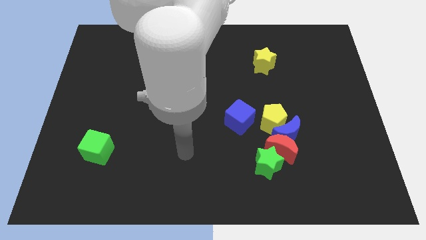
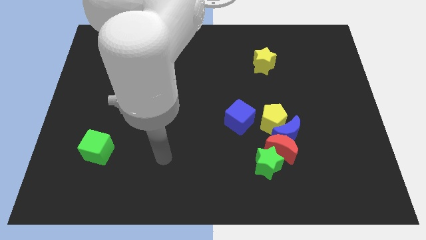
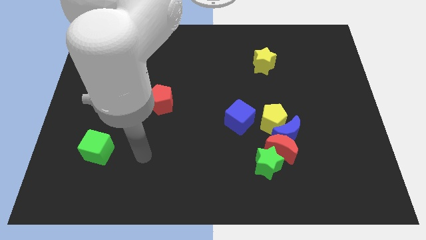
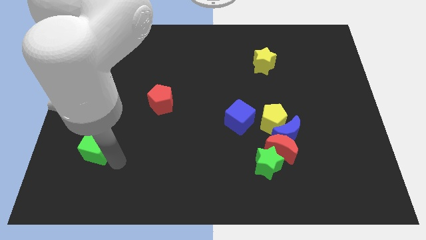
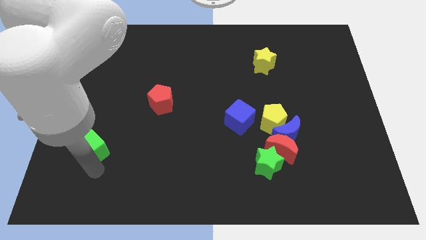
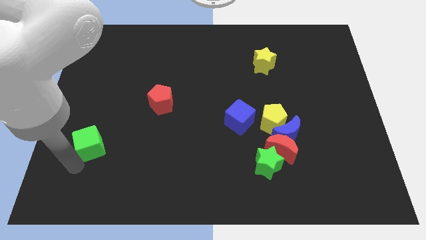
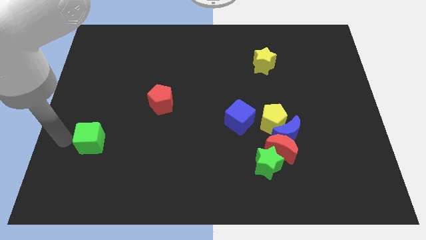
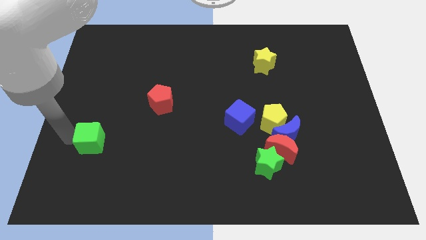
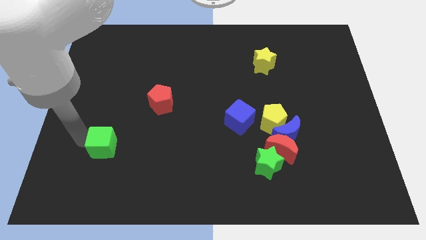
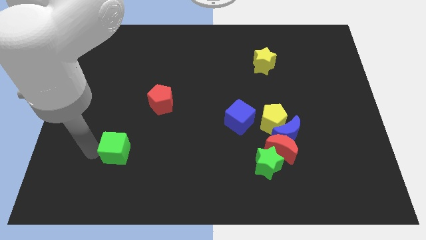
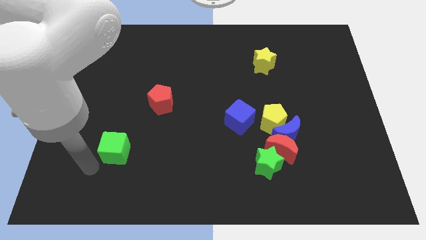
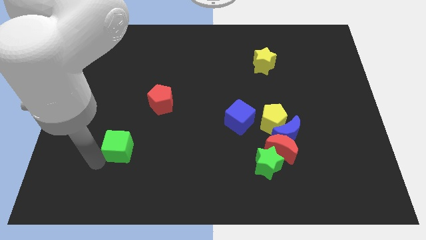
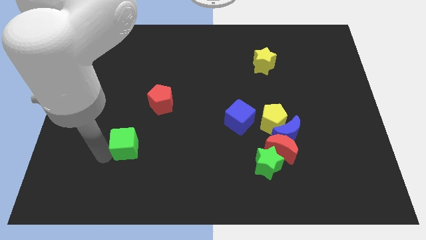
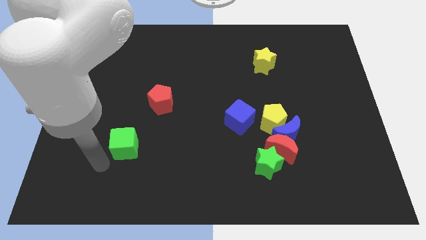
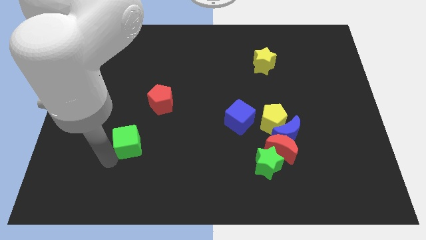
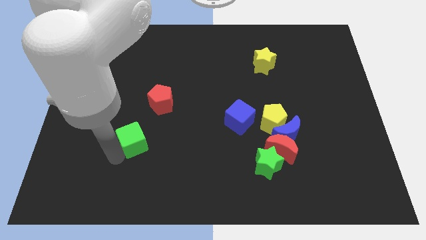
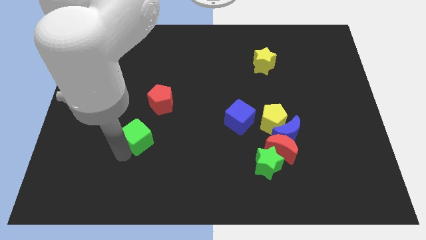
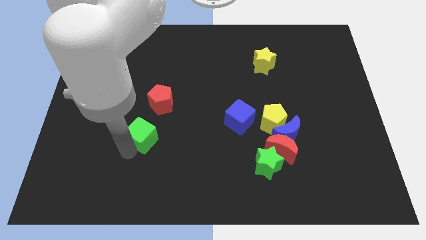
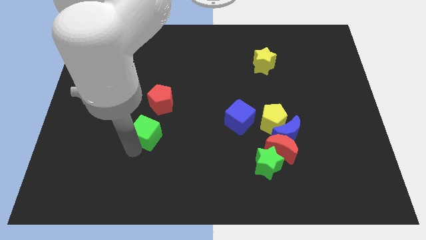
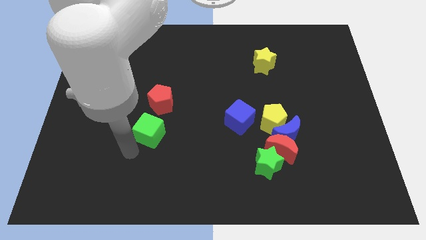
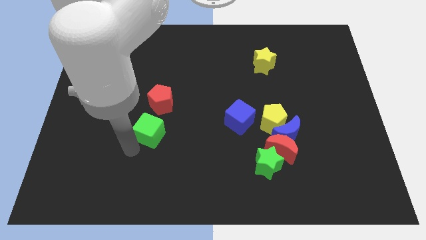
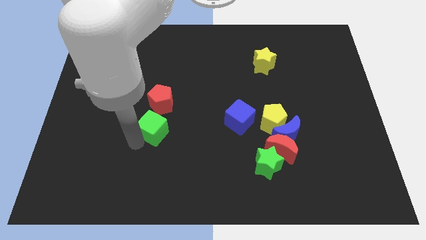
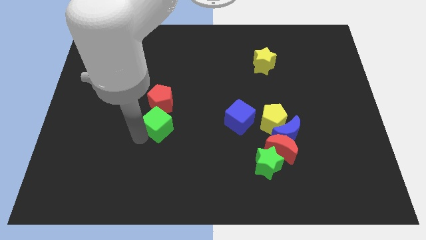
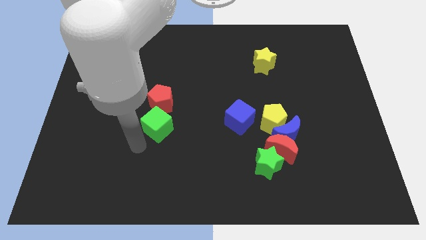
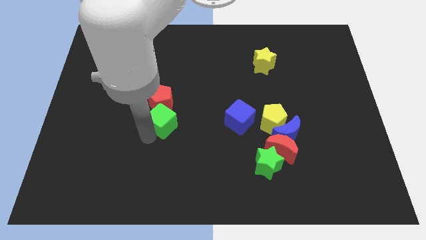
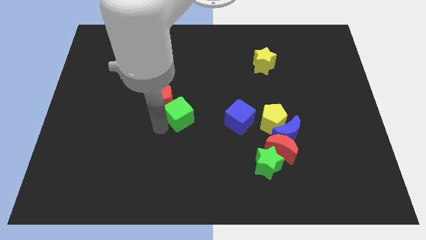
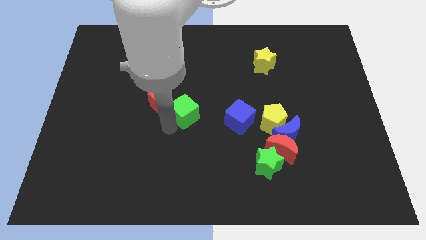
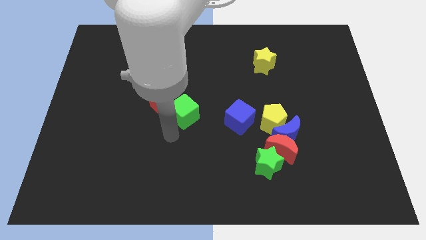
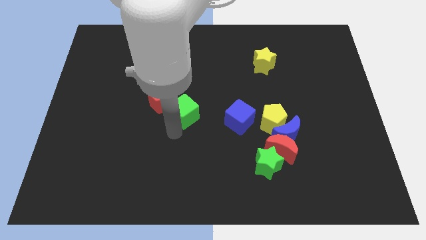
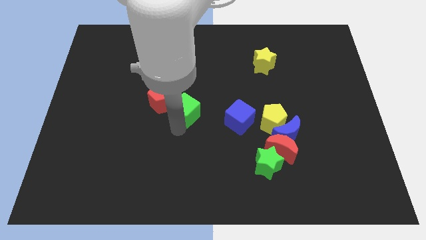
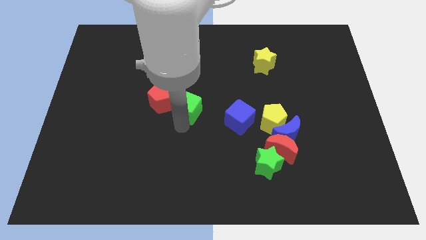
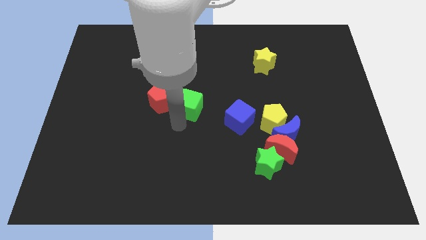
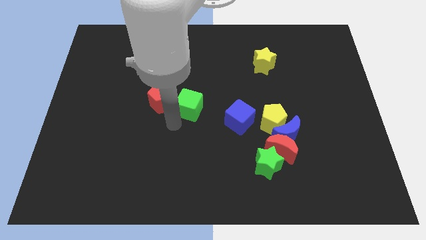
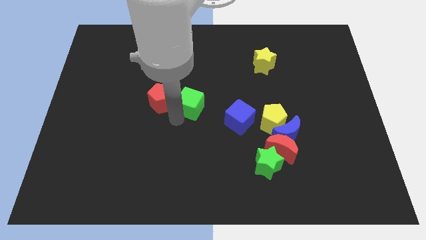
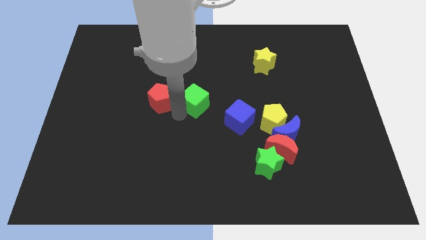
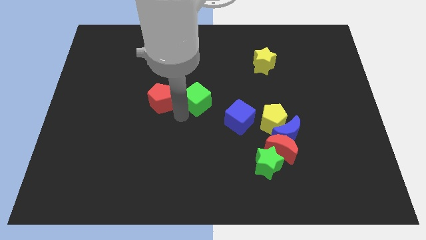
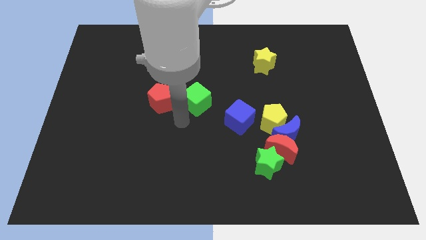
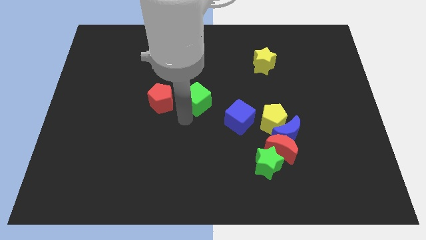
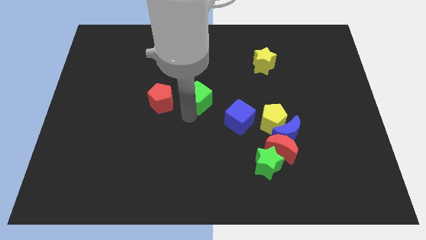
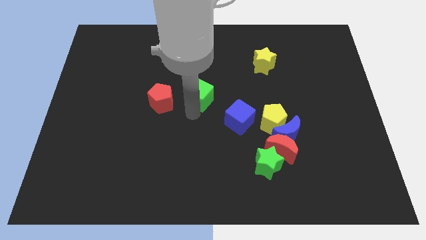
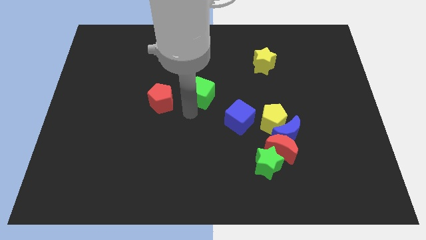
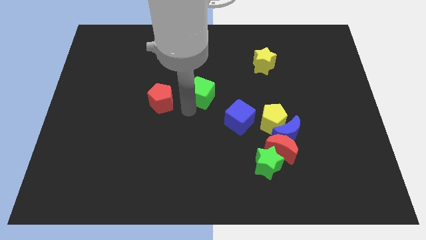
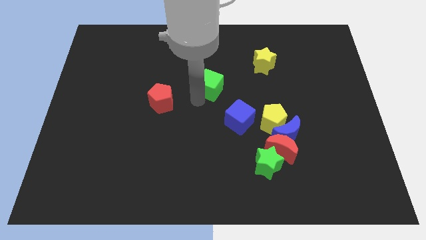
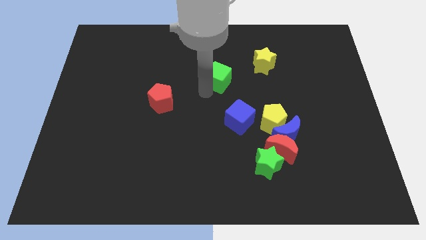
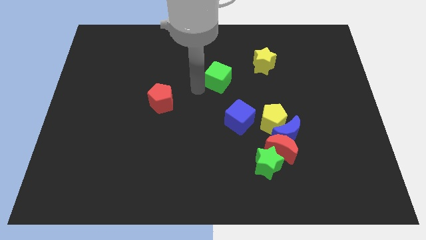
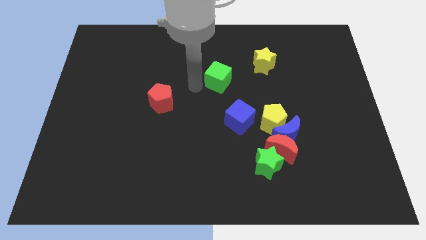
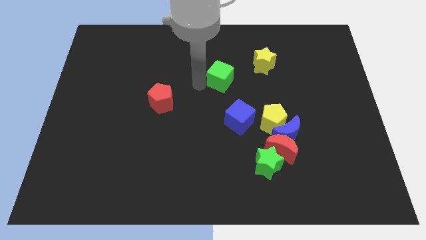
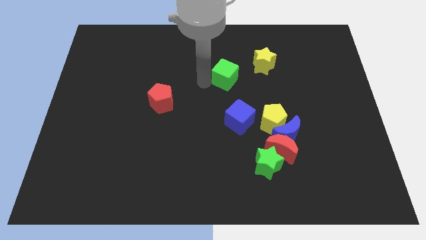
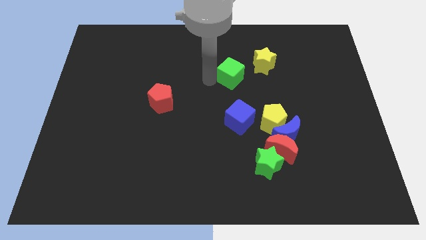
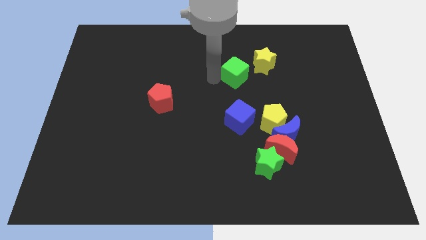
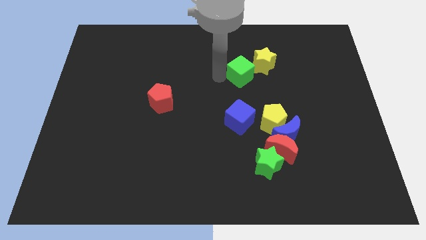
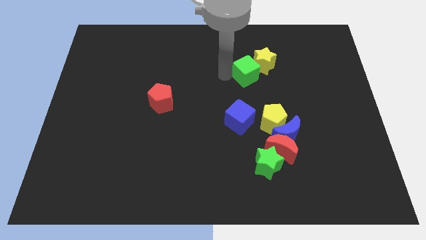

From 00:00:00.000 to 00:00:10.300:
slide the green cube close to the yellow star

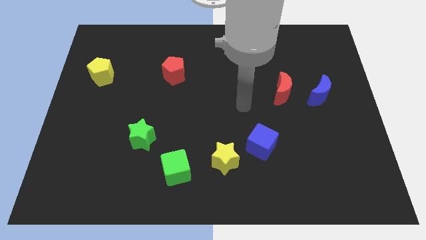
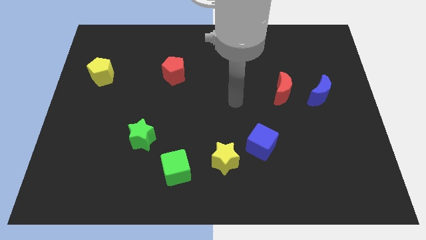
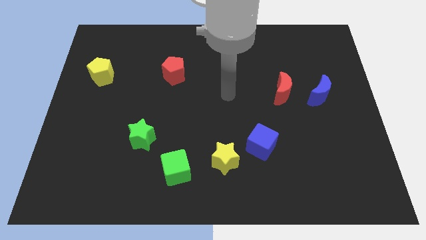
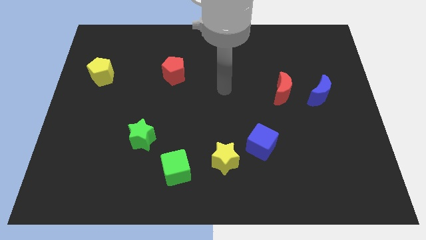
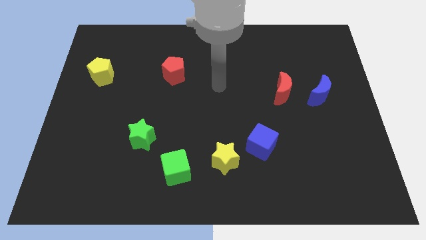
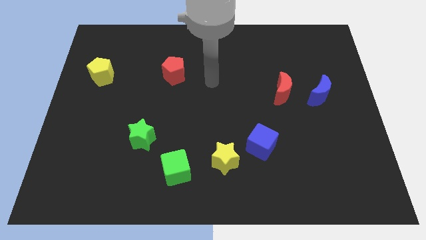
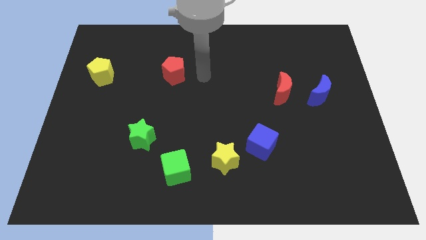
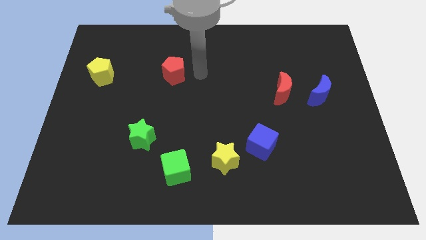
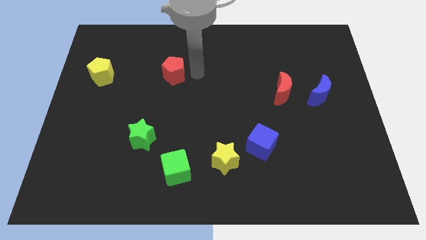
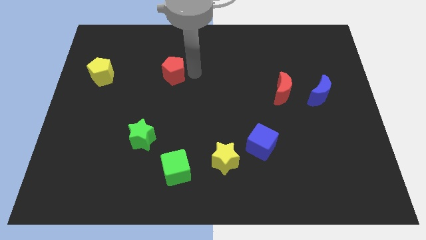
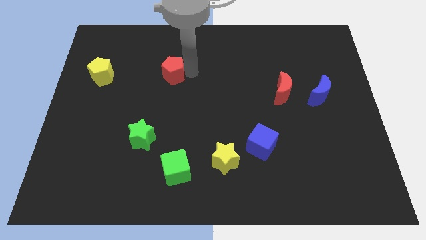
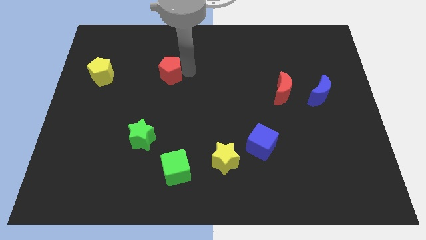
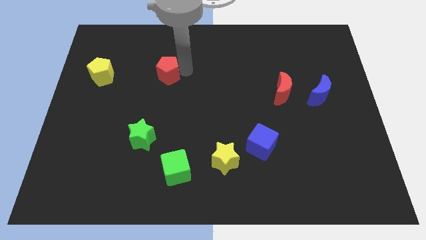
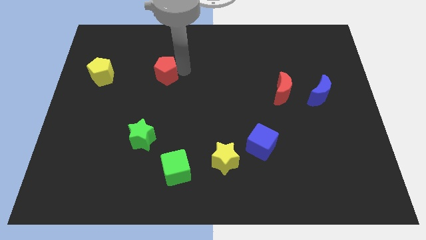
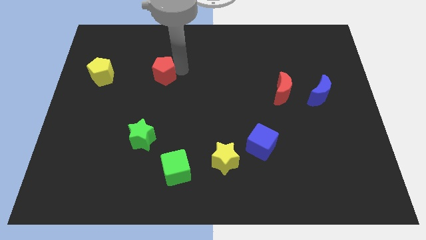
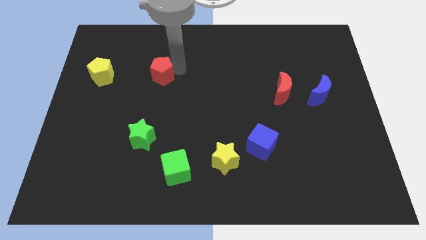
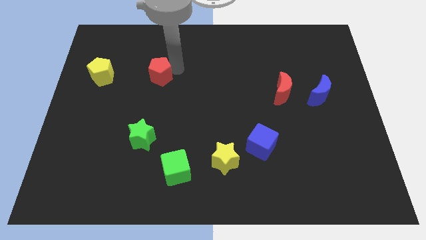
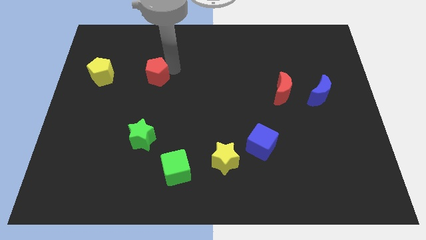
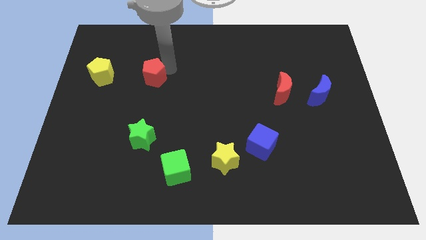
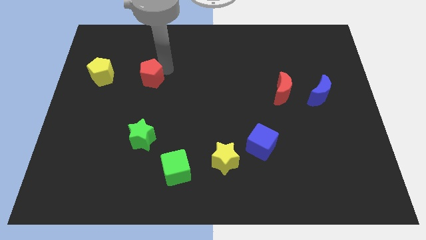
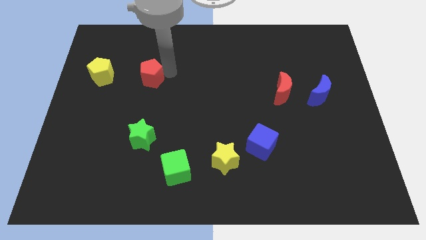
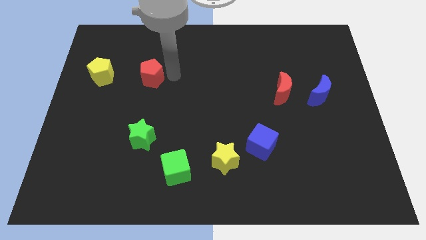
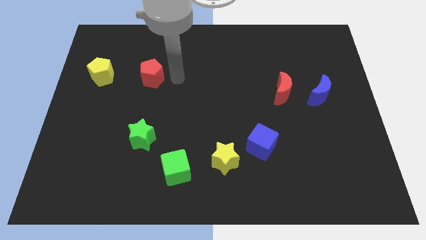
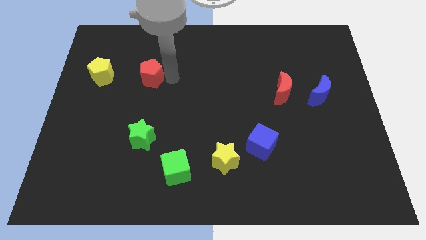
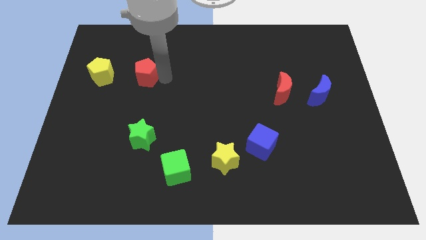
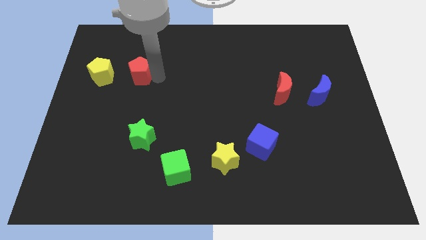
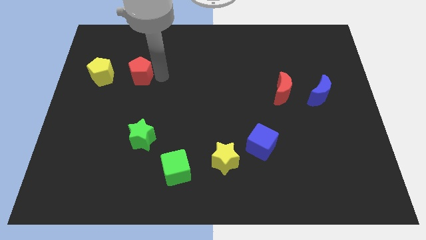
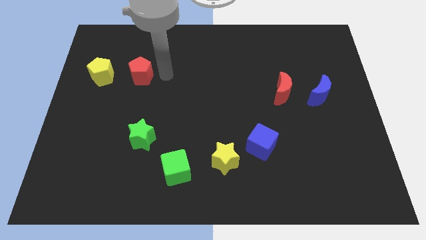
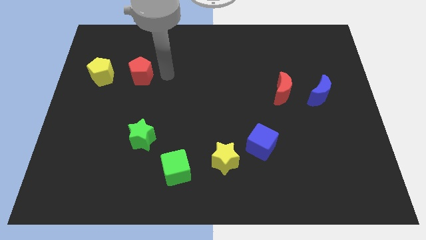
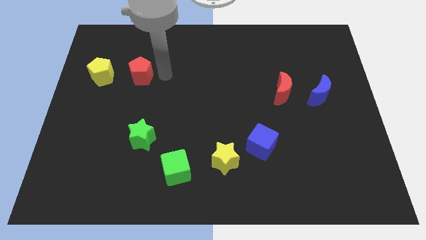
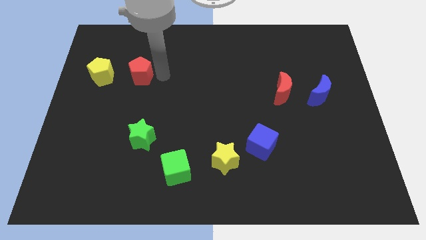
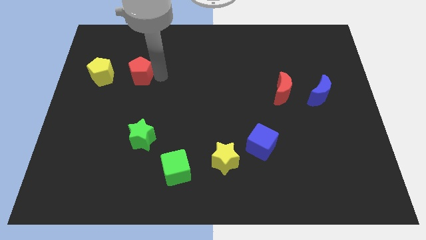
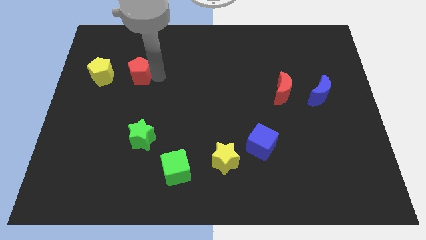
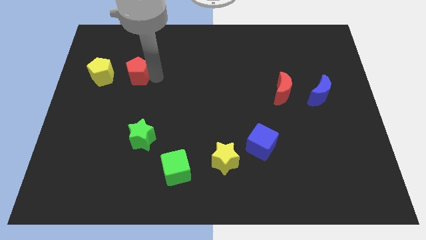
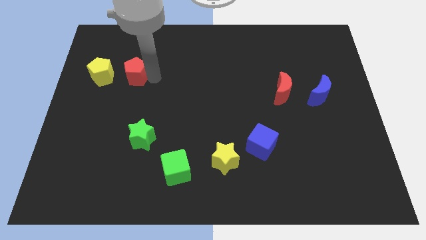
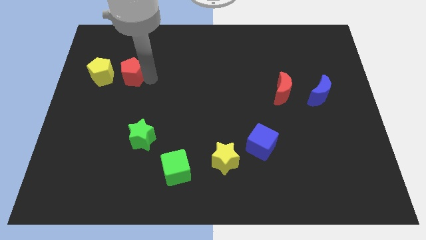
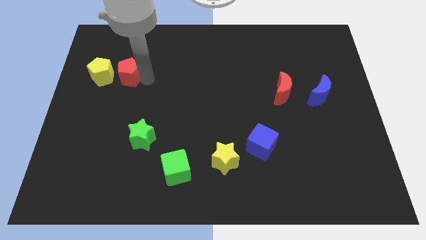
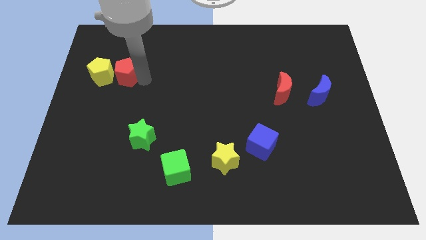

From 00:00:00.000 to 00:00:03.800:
slide the red pentagon towards the yellow pentagon
